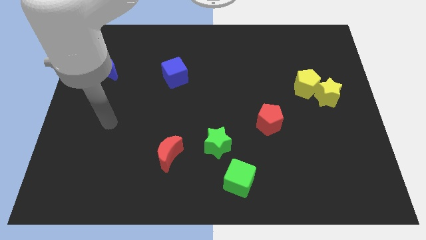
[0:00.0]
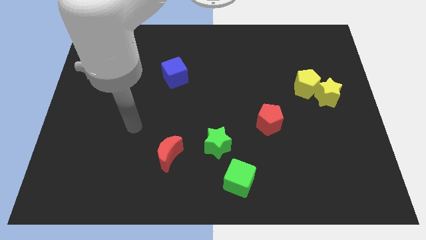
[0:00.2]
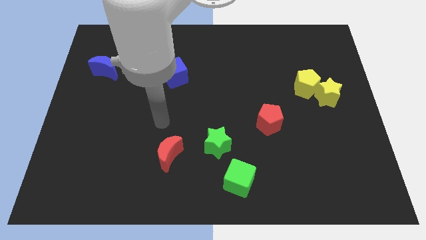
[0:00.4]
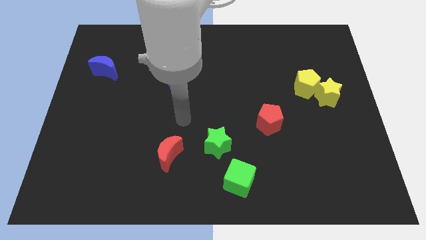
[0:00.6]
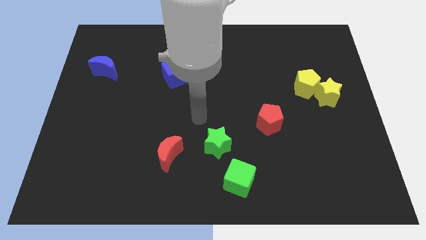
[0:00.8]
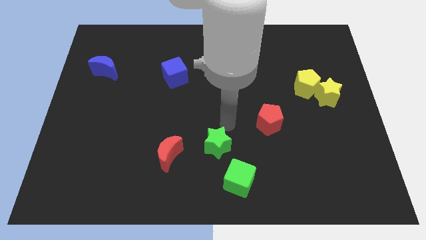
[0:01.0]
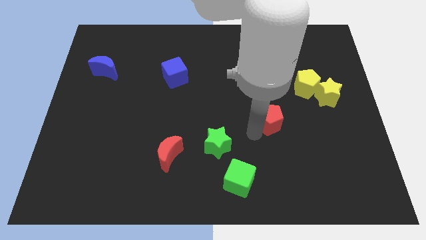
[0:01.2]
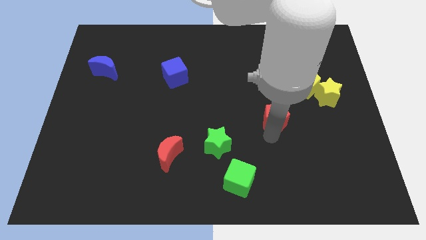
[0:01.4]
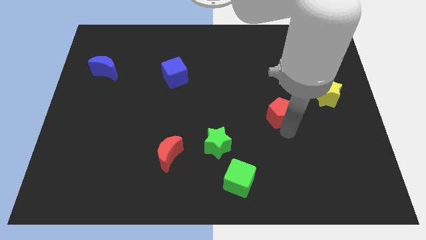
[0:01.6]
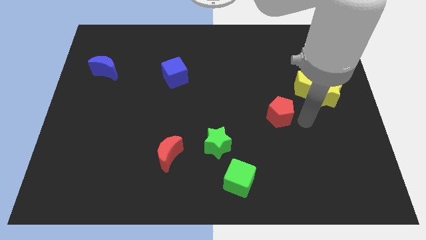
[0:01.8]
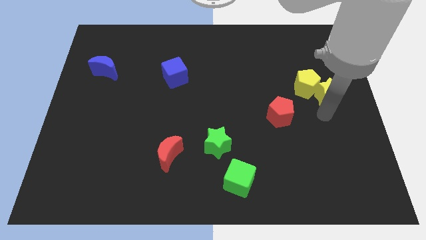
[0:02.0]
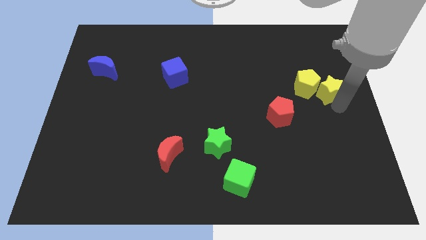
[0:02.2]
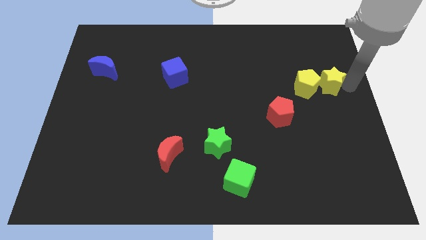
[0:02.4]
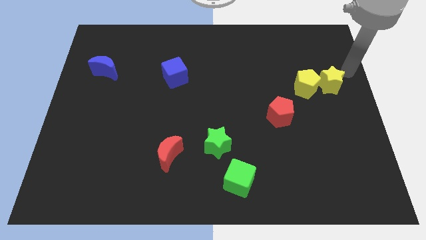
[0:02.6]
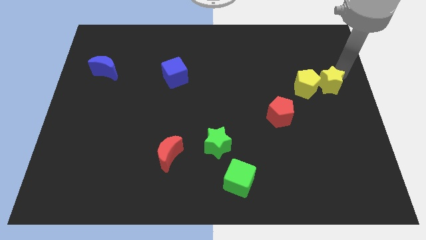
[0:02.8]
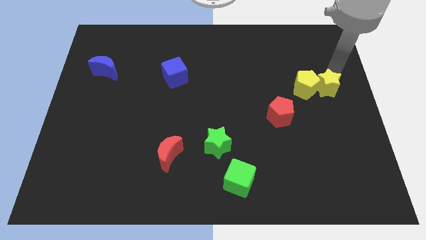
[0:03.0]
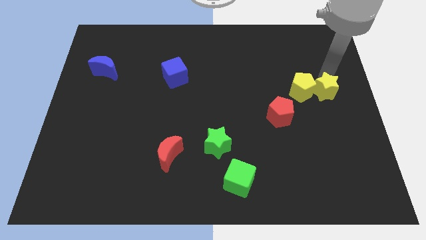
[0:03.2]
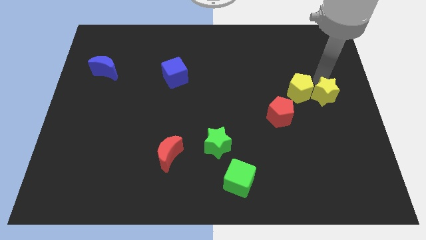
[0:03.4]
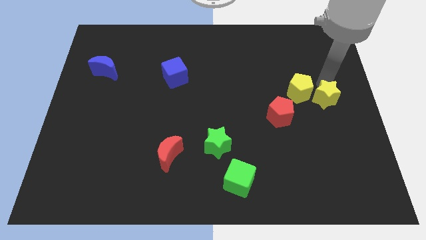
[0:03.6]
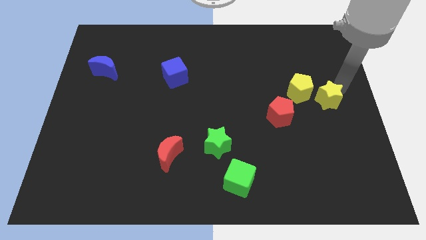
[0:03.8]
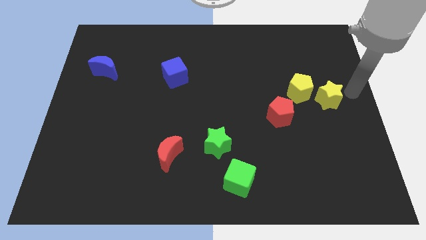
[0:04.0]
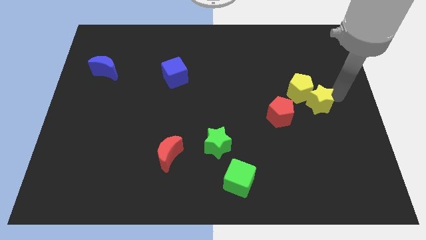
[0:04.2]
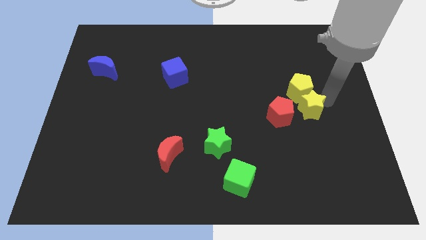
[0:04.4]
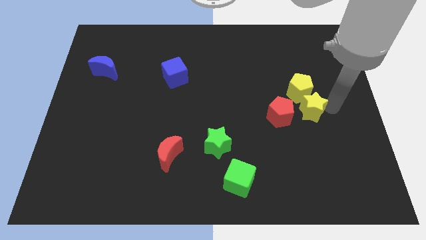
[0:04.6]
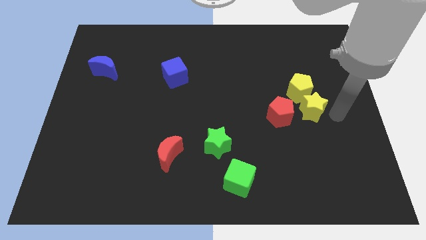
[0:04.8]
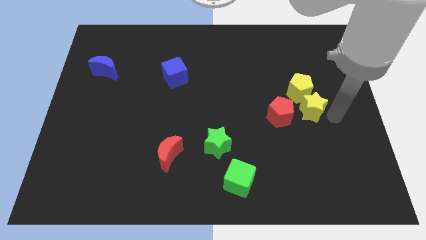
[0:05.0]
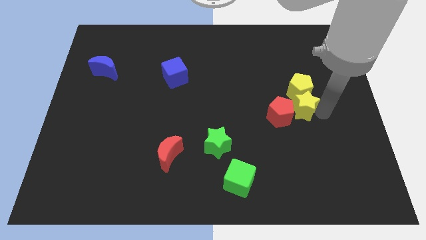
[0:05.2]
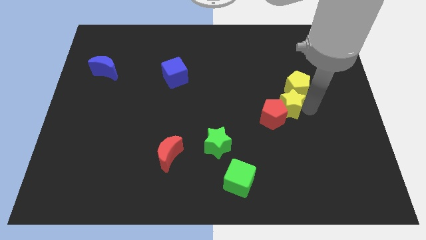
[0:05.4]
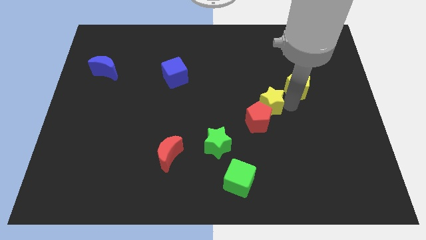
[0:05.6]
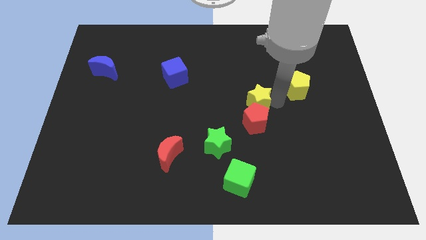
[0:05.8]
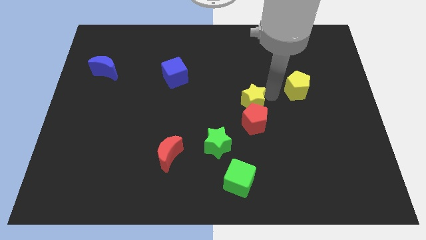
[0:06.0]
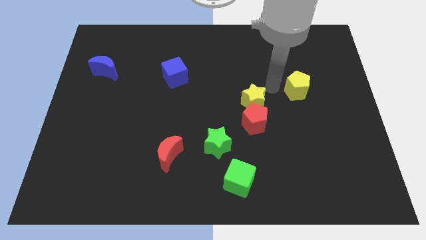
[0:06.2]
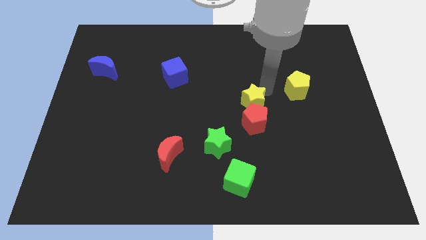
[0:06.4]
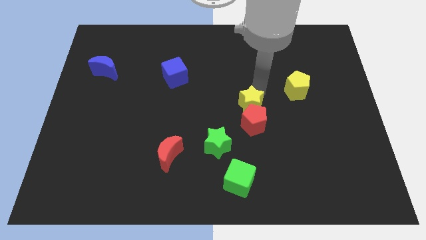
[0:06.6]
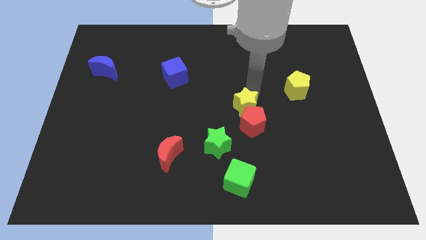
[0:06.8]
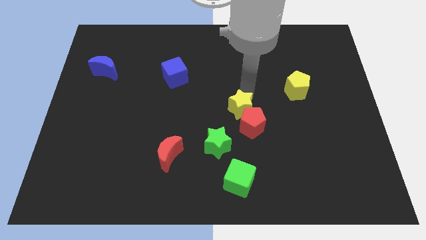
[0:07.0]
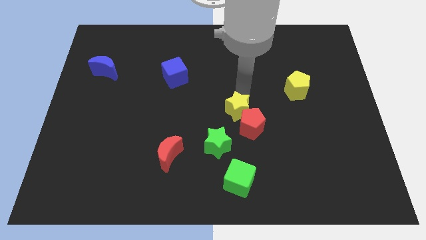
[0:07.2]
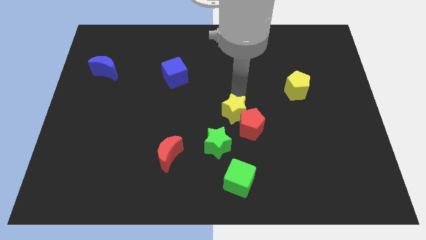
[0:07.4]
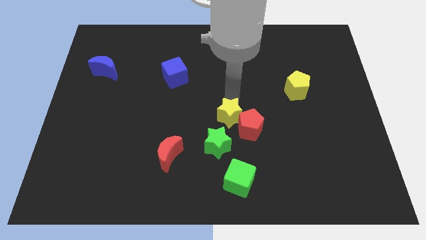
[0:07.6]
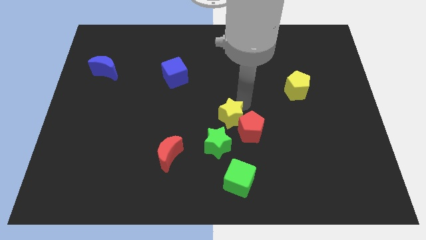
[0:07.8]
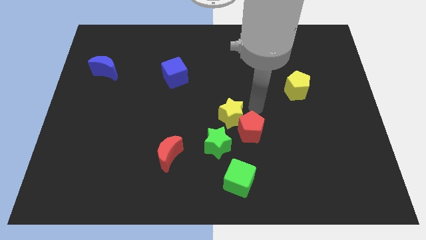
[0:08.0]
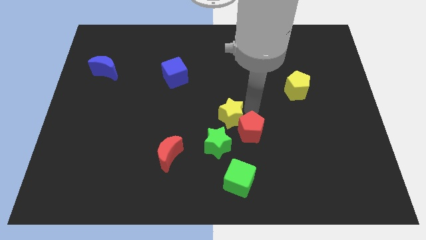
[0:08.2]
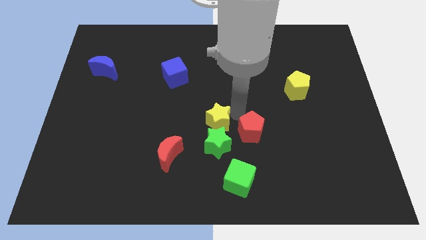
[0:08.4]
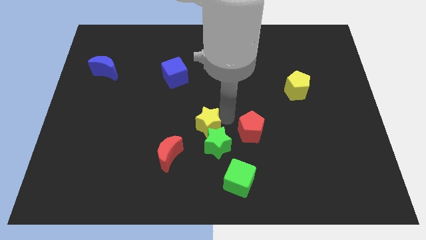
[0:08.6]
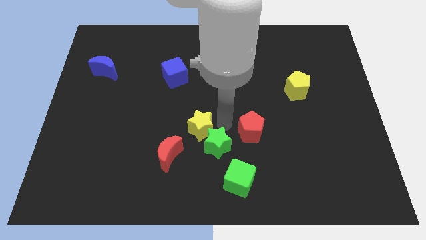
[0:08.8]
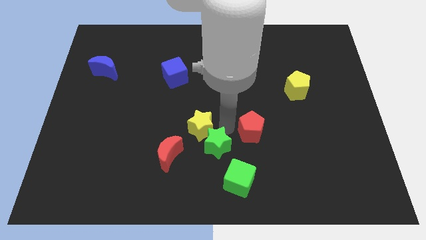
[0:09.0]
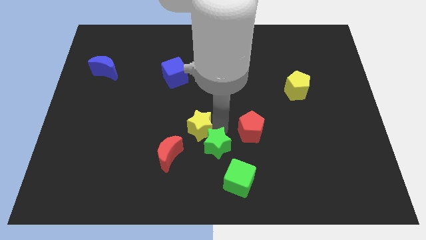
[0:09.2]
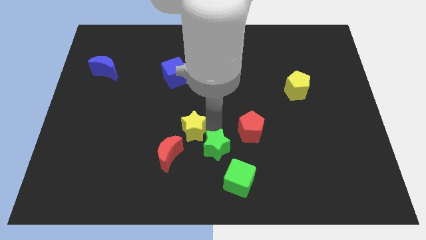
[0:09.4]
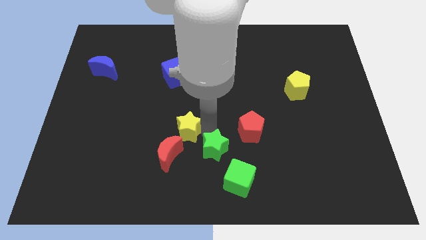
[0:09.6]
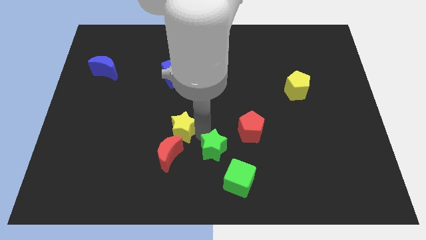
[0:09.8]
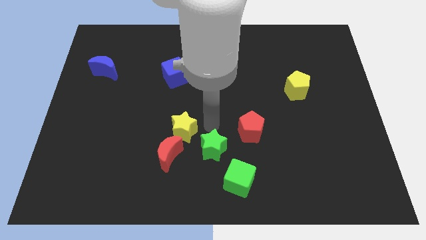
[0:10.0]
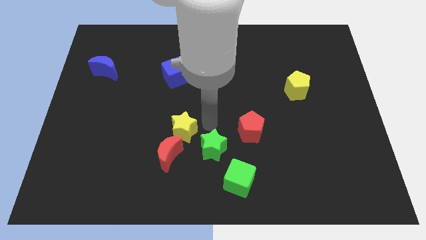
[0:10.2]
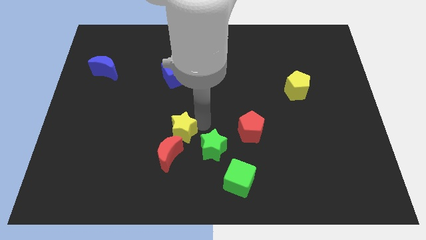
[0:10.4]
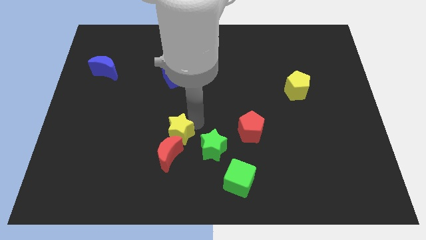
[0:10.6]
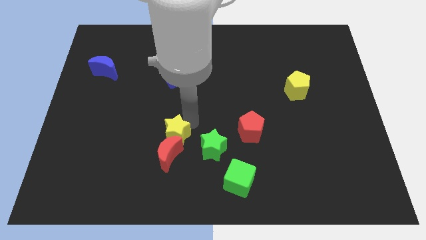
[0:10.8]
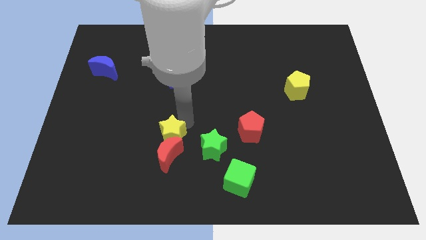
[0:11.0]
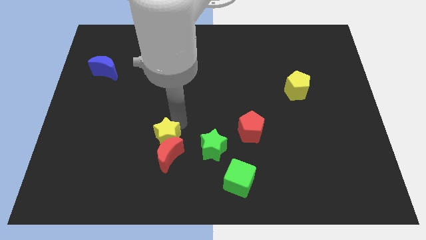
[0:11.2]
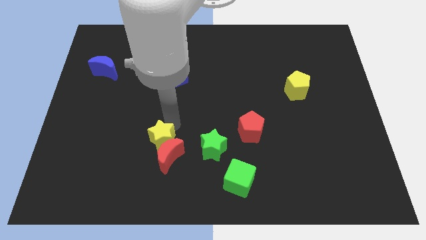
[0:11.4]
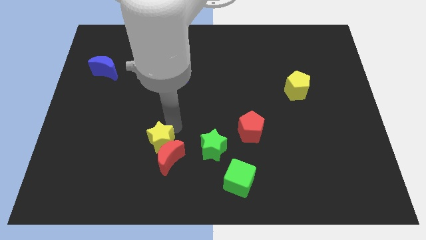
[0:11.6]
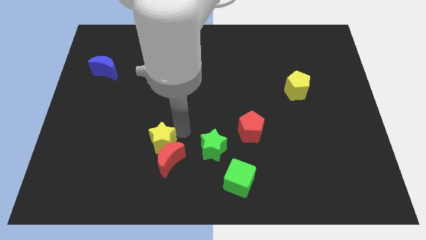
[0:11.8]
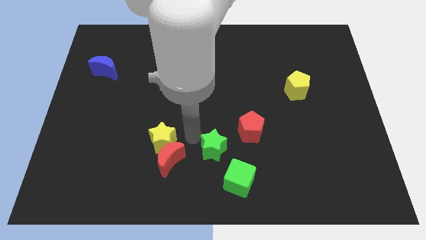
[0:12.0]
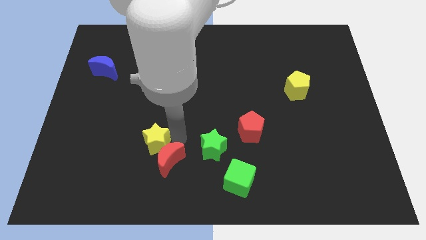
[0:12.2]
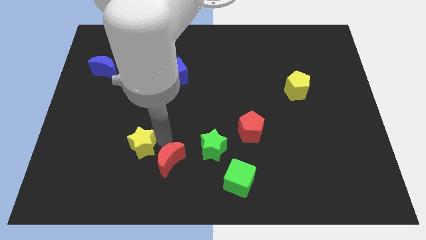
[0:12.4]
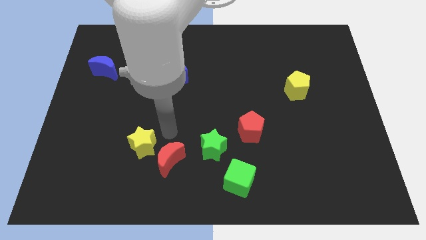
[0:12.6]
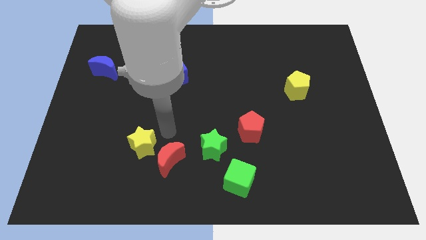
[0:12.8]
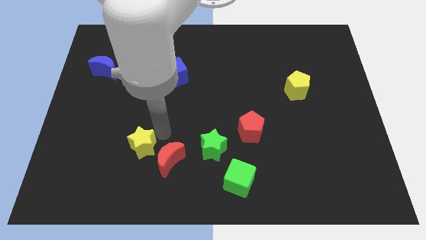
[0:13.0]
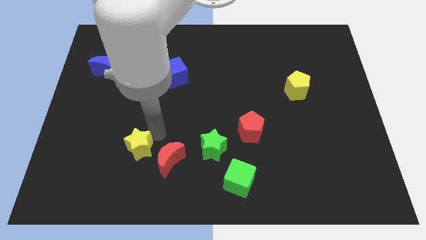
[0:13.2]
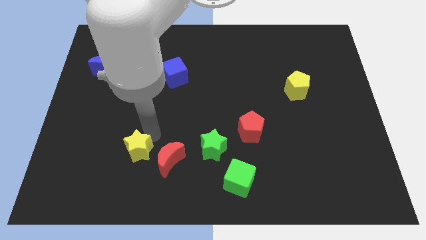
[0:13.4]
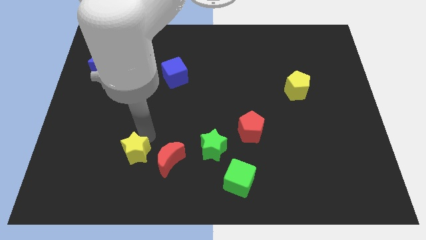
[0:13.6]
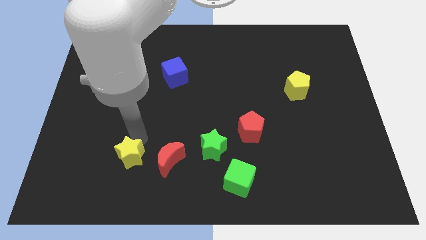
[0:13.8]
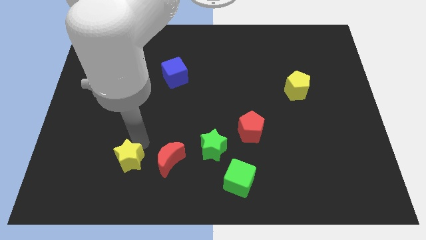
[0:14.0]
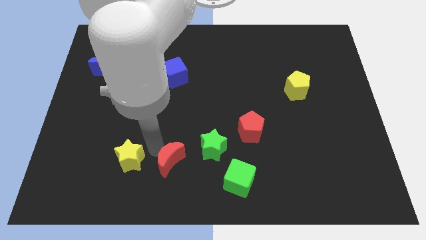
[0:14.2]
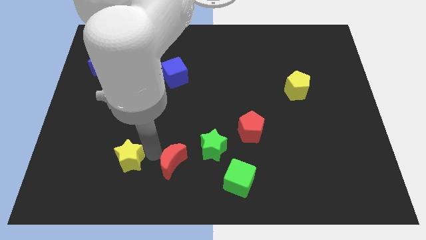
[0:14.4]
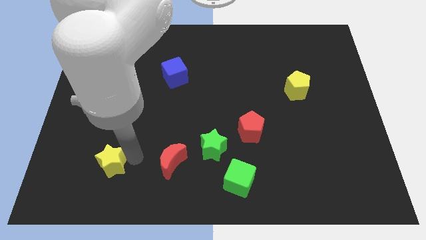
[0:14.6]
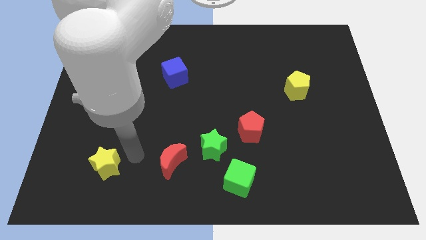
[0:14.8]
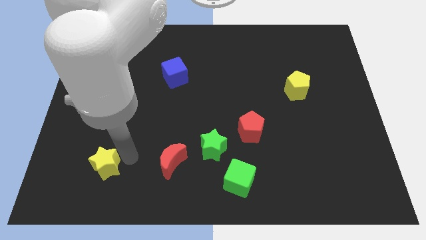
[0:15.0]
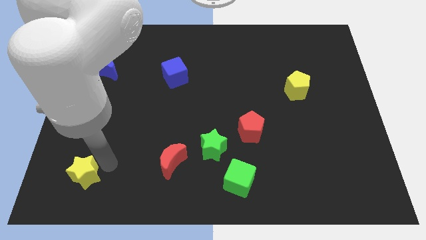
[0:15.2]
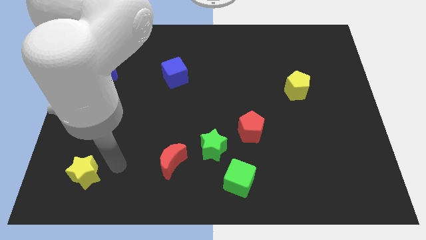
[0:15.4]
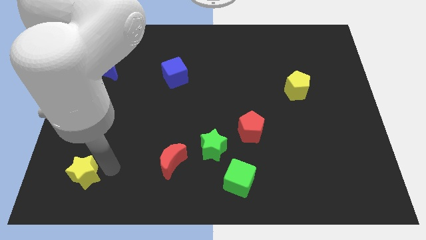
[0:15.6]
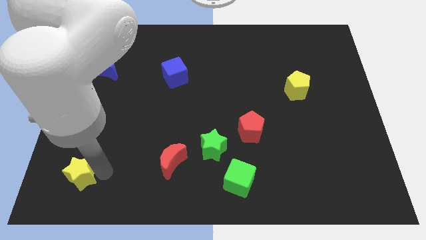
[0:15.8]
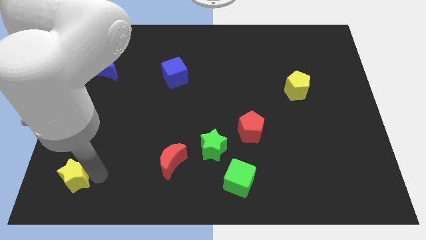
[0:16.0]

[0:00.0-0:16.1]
push the yellow star to the bottom left corner
